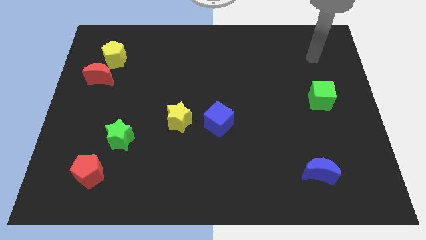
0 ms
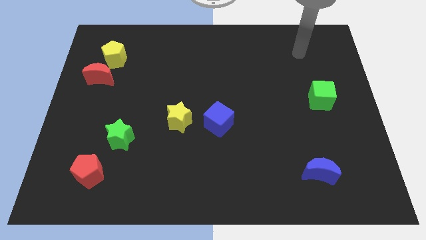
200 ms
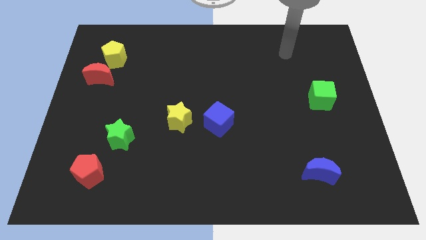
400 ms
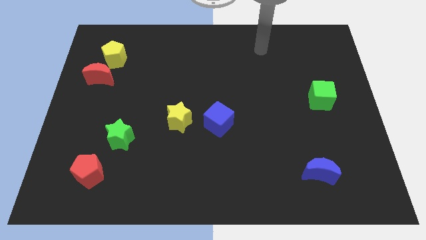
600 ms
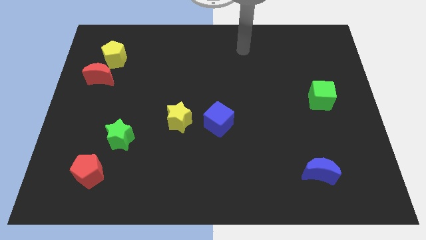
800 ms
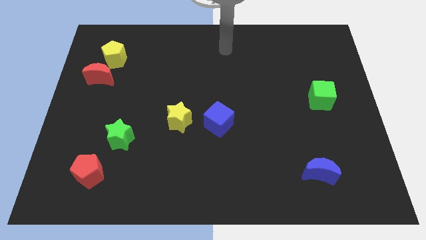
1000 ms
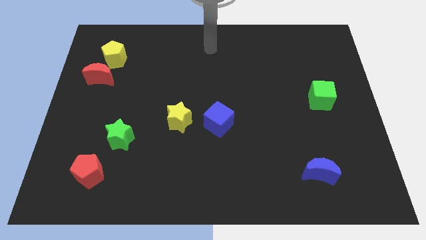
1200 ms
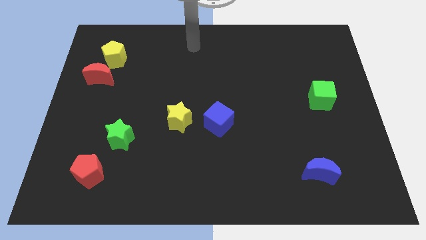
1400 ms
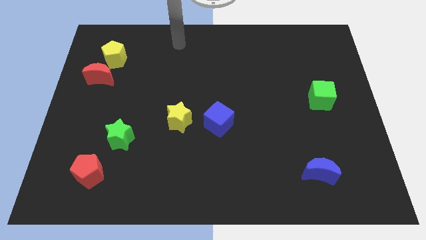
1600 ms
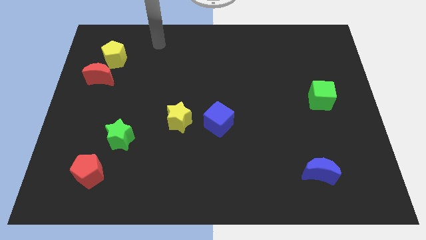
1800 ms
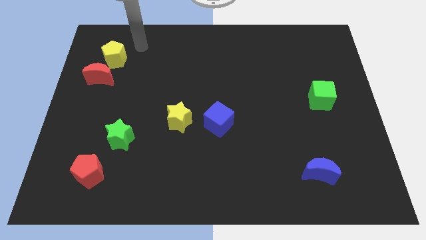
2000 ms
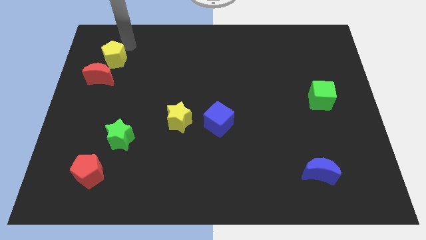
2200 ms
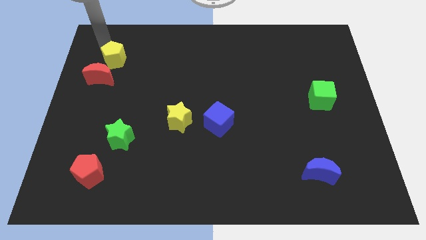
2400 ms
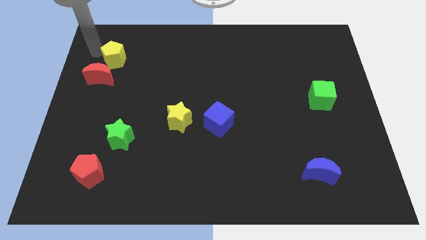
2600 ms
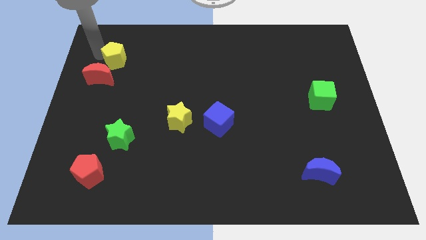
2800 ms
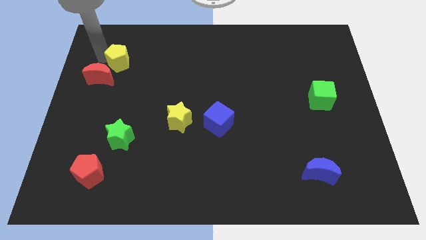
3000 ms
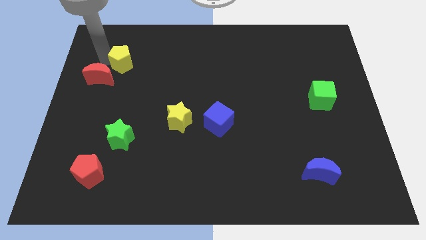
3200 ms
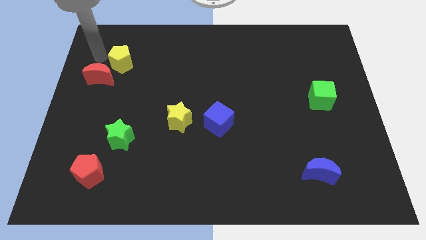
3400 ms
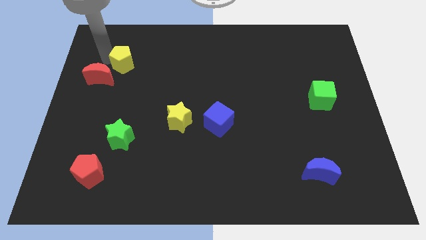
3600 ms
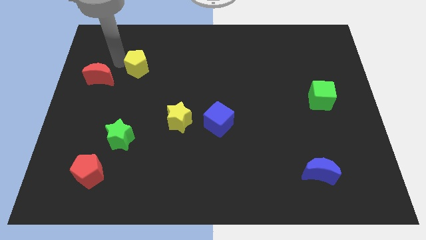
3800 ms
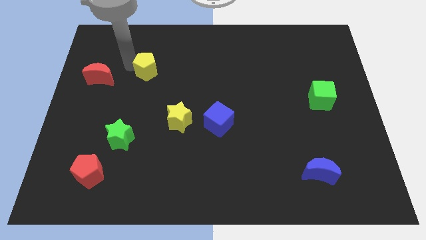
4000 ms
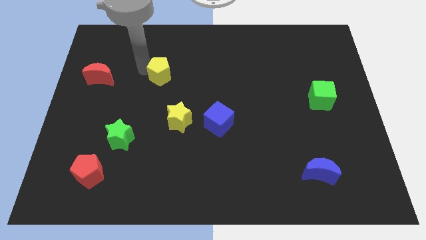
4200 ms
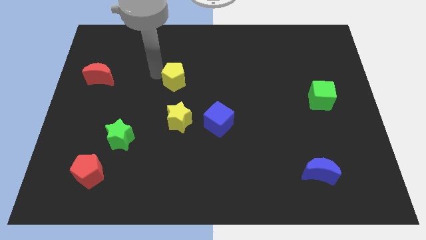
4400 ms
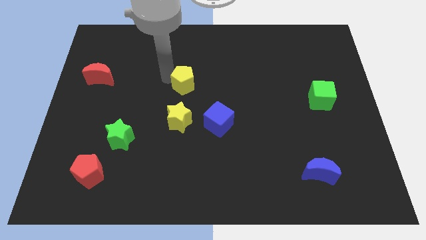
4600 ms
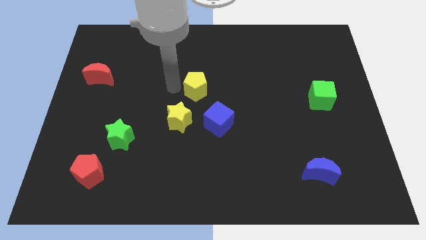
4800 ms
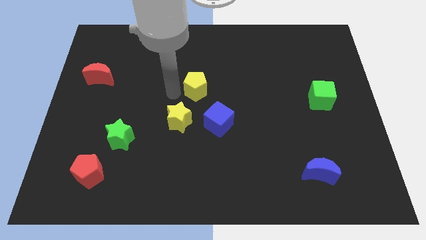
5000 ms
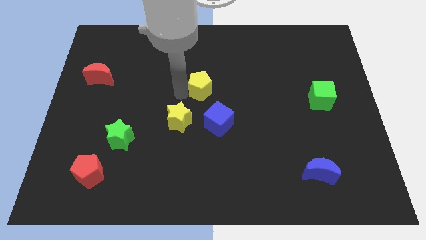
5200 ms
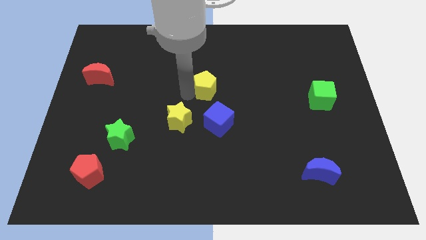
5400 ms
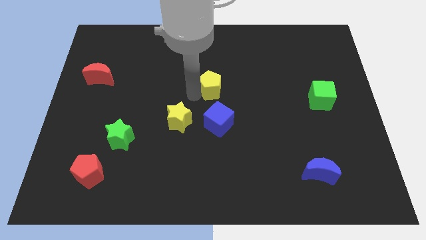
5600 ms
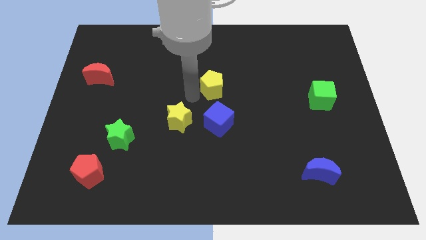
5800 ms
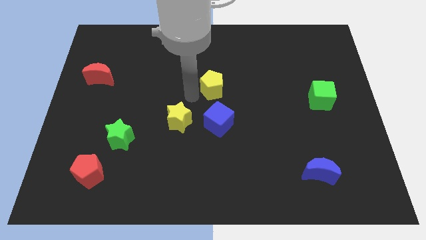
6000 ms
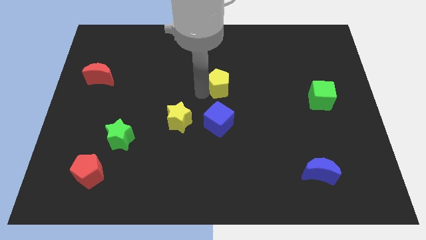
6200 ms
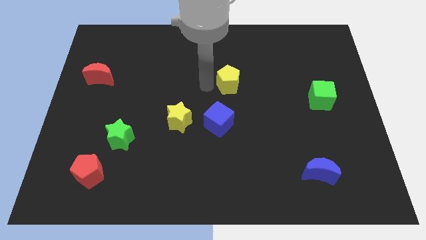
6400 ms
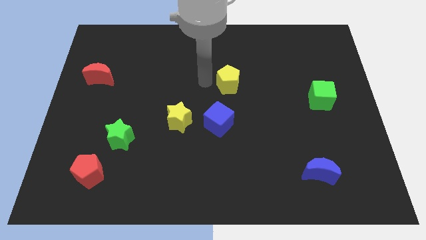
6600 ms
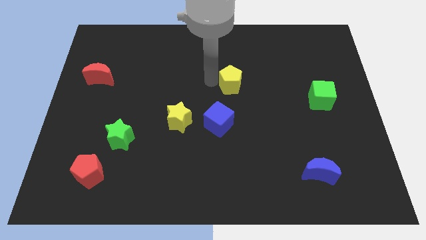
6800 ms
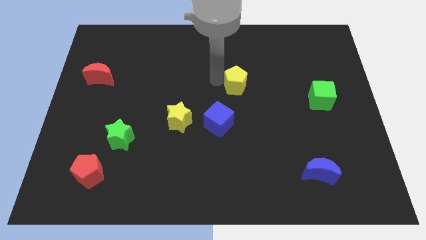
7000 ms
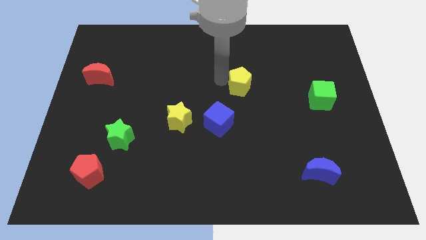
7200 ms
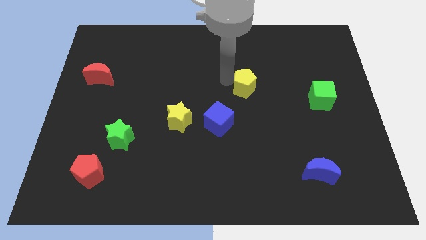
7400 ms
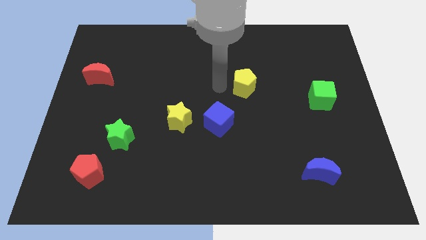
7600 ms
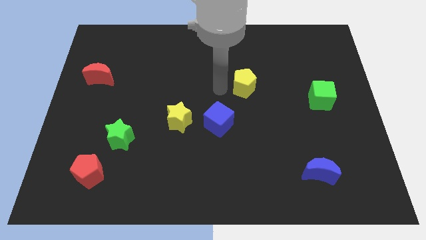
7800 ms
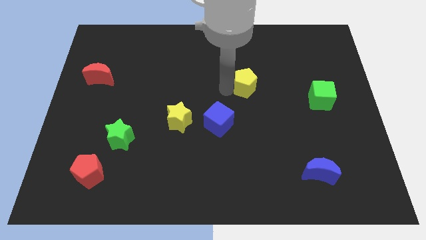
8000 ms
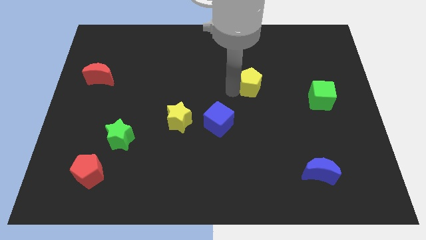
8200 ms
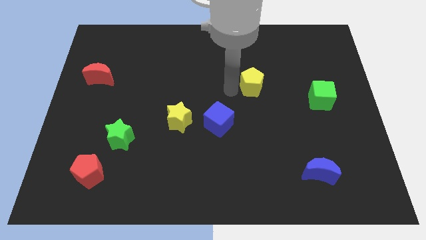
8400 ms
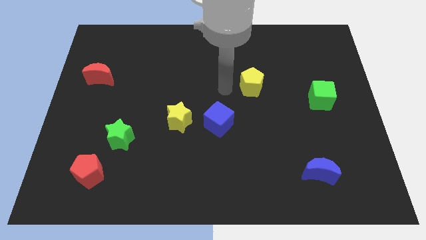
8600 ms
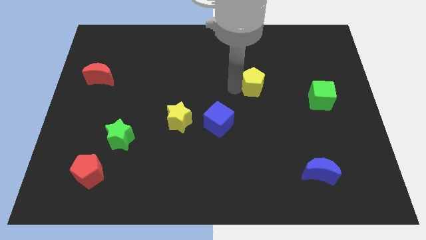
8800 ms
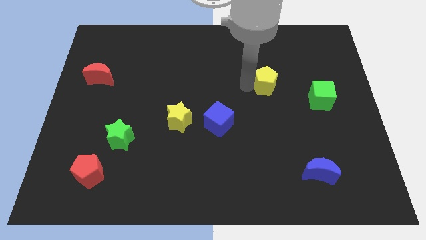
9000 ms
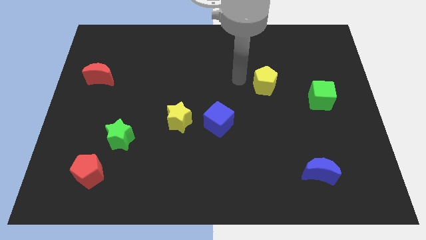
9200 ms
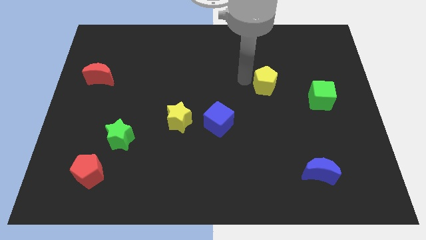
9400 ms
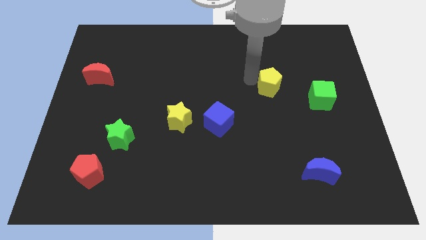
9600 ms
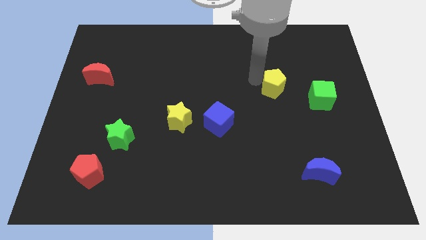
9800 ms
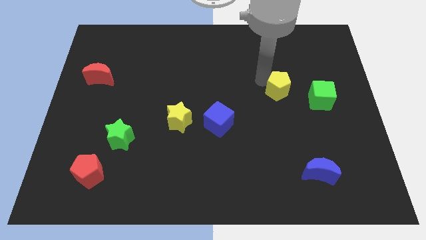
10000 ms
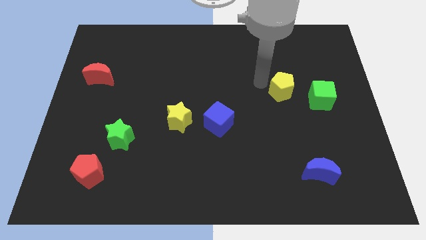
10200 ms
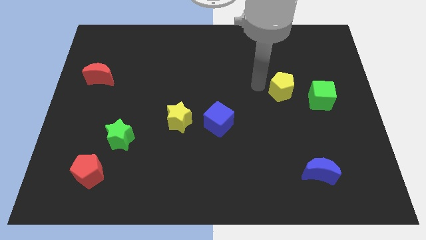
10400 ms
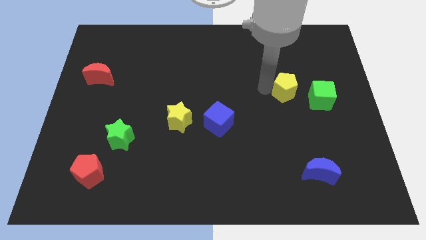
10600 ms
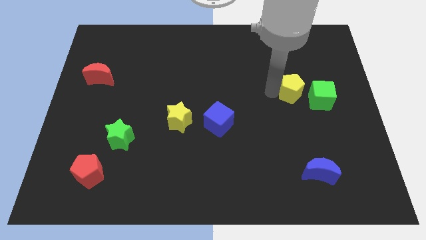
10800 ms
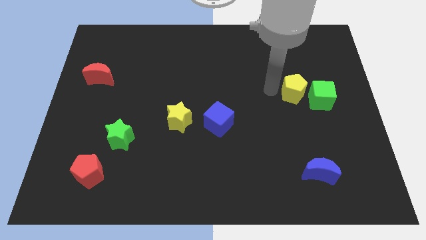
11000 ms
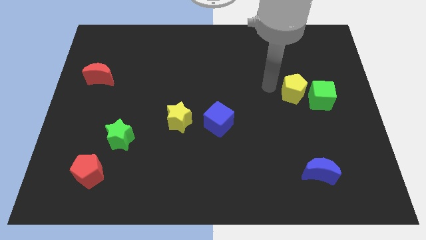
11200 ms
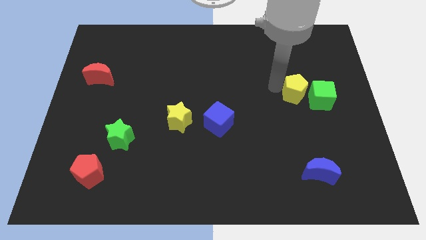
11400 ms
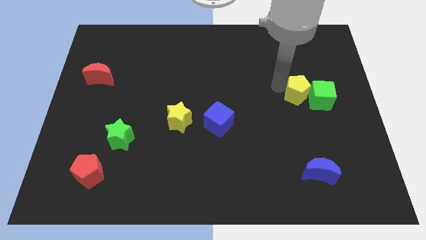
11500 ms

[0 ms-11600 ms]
slide the yellow pentagon to the green cube

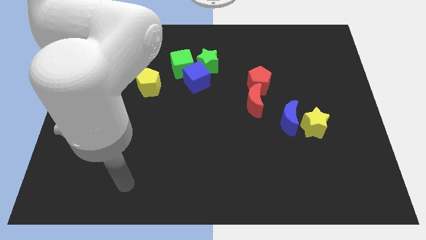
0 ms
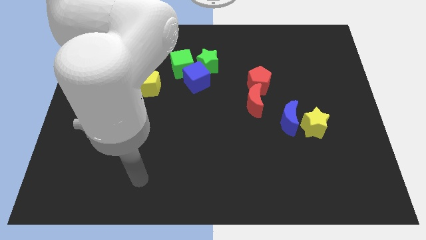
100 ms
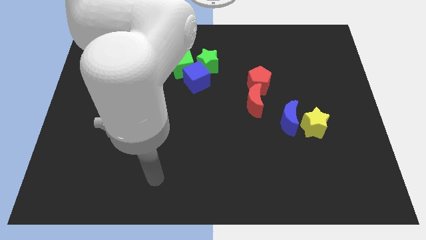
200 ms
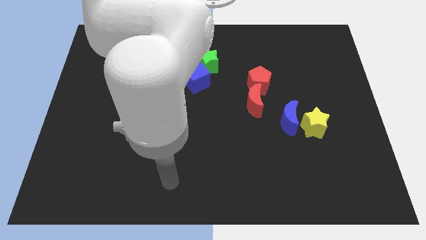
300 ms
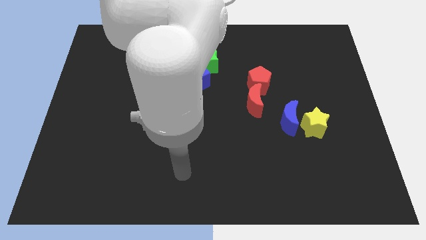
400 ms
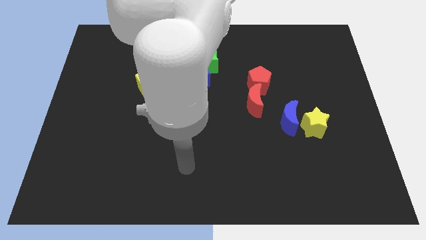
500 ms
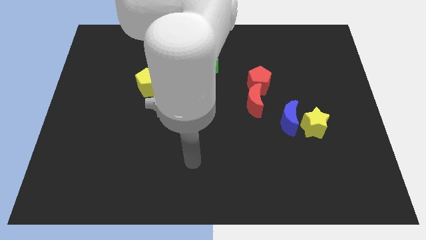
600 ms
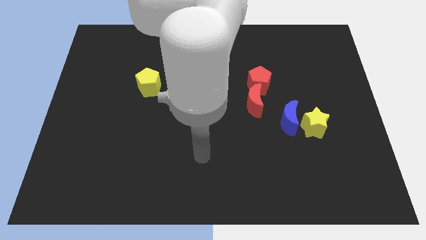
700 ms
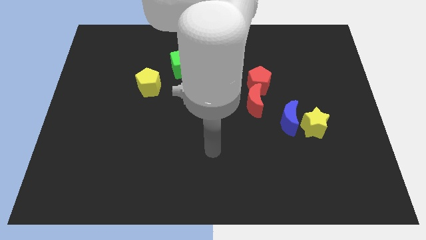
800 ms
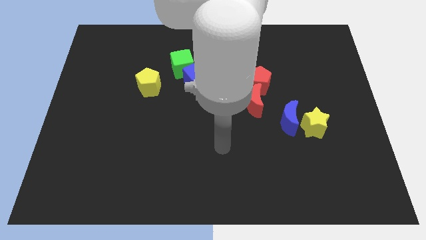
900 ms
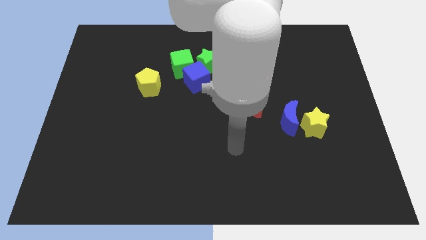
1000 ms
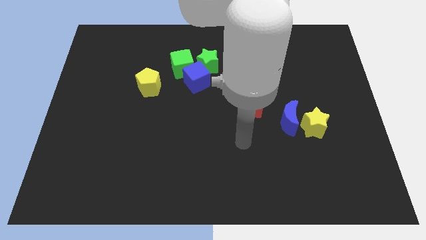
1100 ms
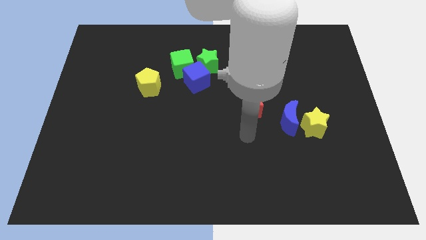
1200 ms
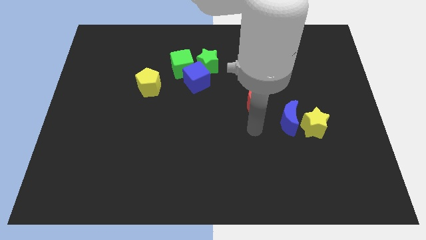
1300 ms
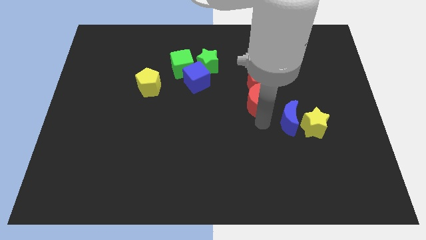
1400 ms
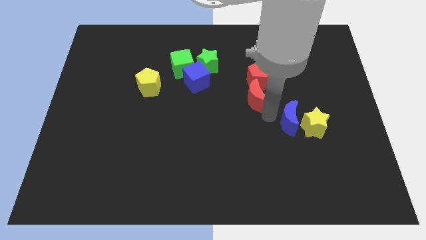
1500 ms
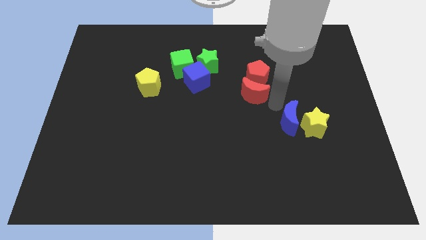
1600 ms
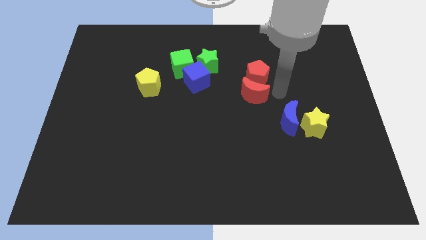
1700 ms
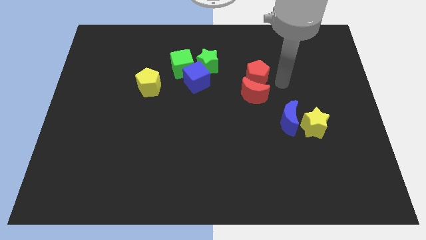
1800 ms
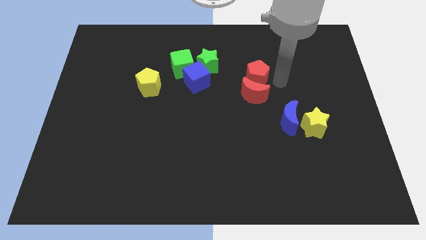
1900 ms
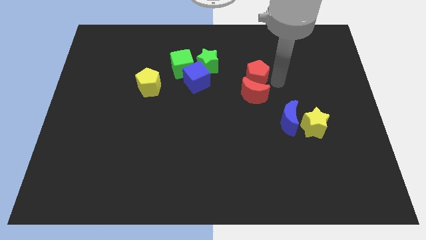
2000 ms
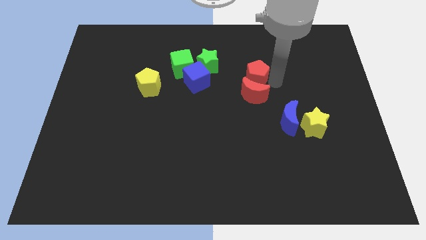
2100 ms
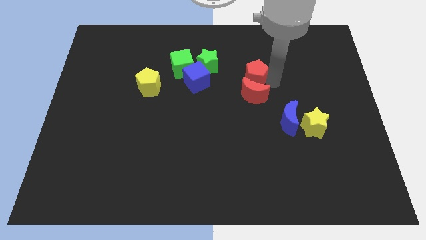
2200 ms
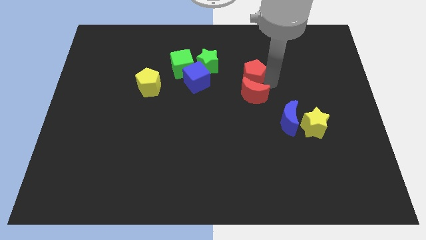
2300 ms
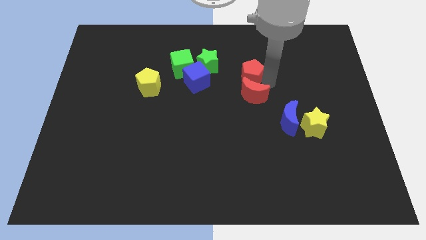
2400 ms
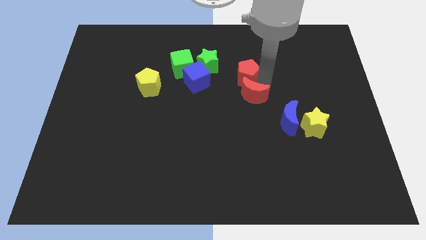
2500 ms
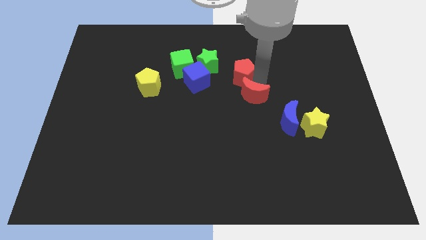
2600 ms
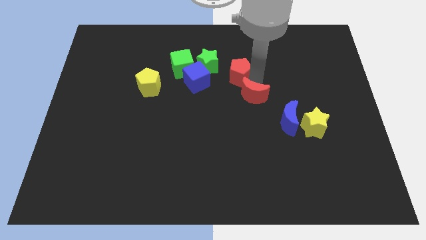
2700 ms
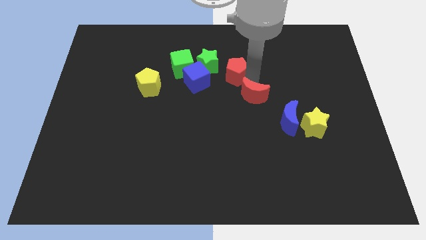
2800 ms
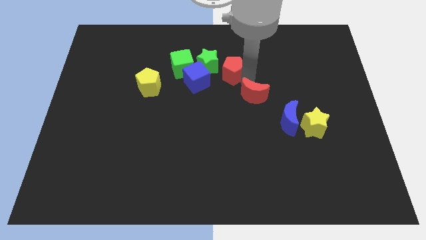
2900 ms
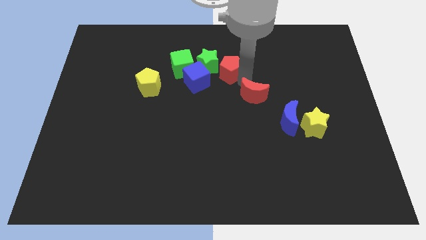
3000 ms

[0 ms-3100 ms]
put the red pentagon next to the green star
